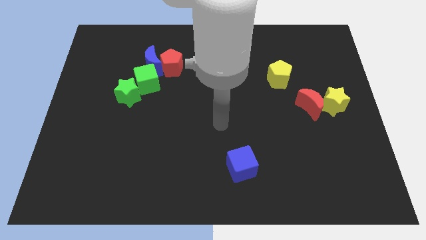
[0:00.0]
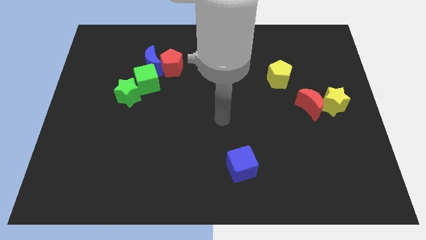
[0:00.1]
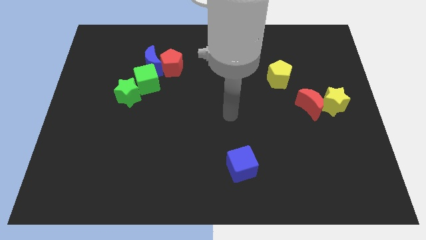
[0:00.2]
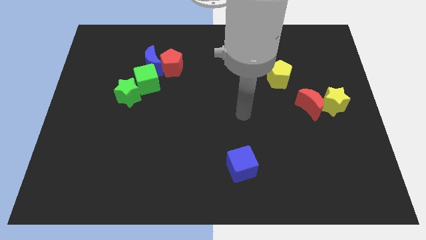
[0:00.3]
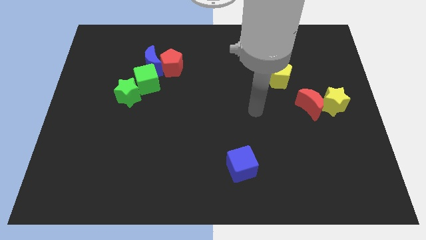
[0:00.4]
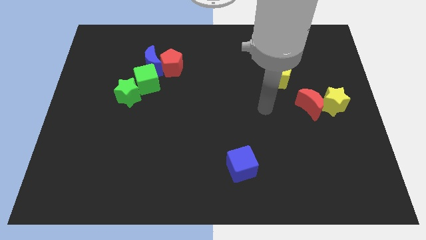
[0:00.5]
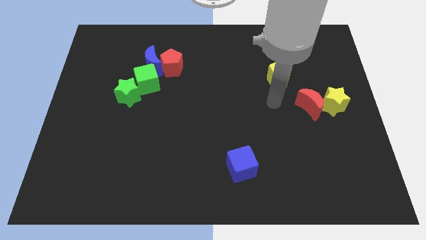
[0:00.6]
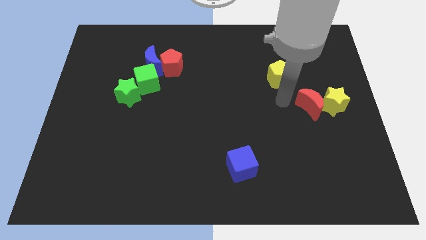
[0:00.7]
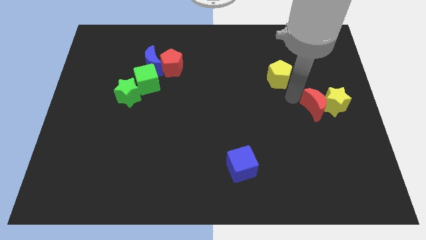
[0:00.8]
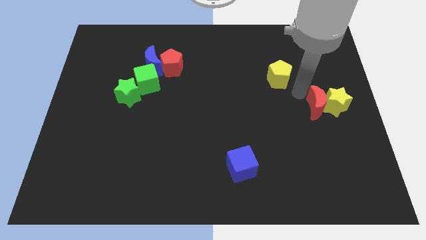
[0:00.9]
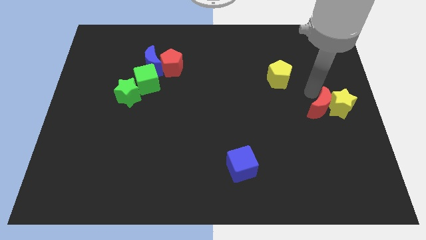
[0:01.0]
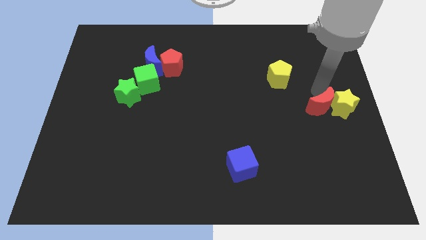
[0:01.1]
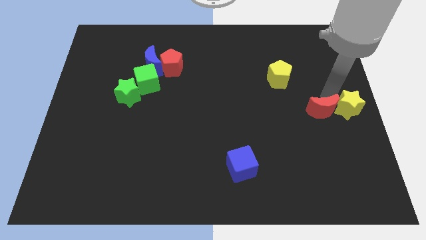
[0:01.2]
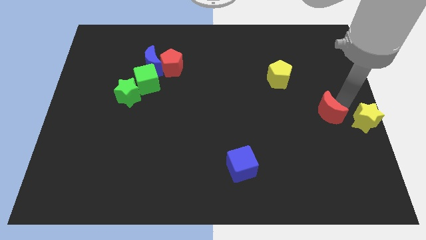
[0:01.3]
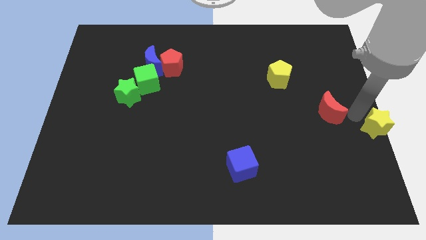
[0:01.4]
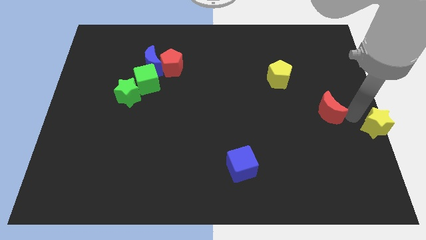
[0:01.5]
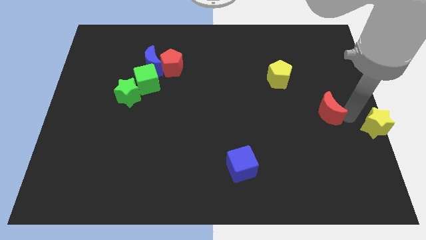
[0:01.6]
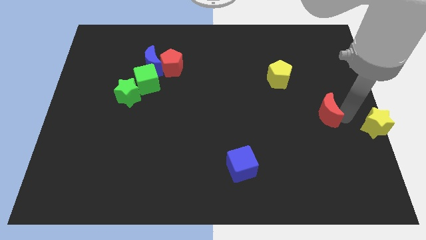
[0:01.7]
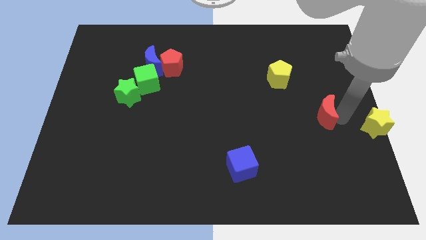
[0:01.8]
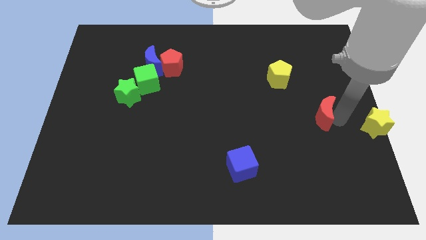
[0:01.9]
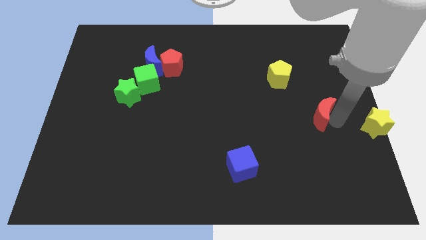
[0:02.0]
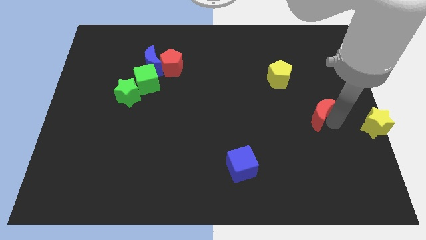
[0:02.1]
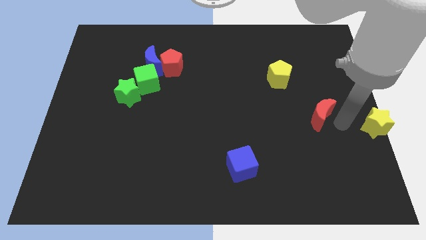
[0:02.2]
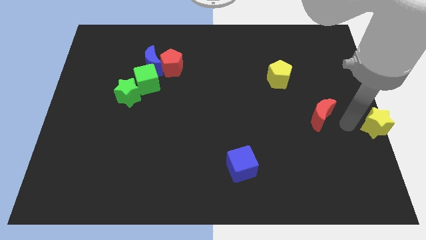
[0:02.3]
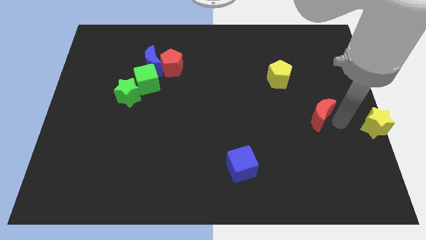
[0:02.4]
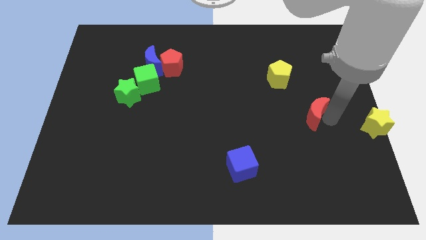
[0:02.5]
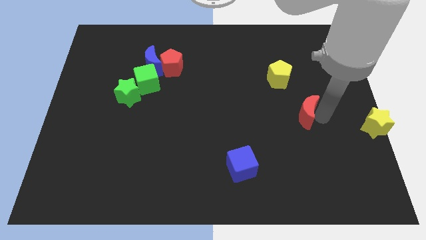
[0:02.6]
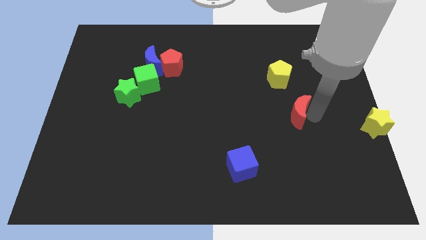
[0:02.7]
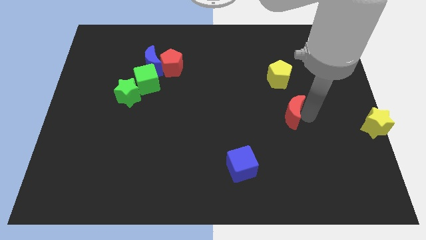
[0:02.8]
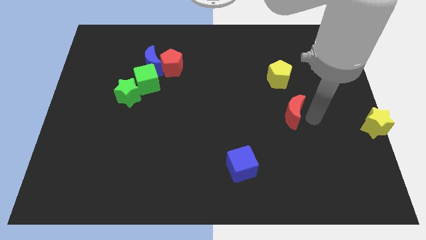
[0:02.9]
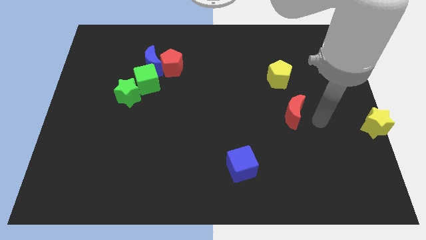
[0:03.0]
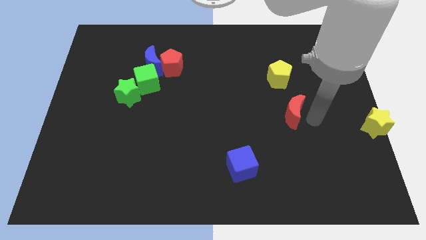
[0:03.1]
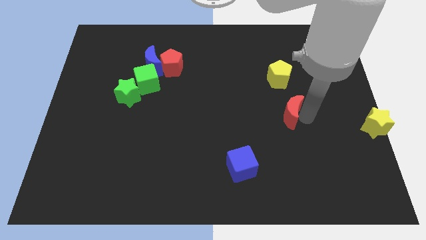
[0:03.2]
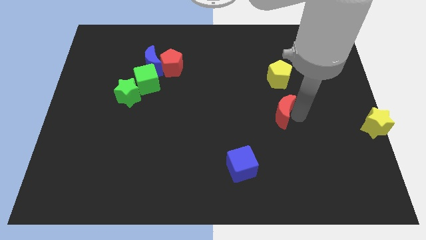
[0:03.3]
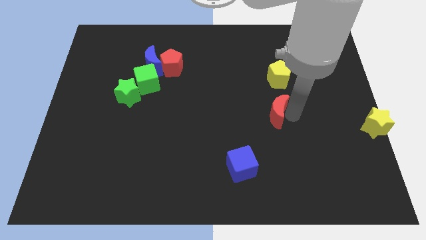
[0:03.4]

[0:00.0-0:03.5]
slightly slide the red moon to the left

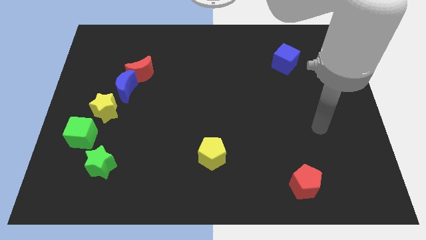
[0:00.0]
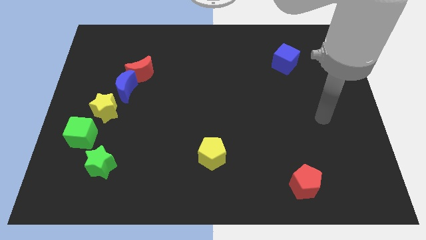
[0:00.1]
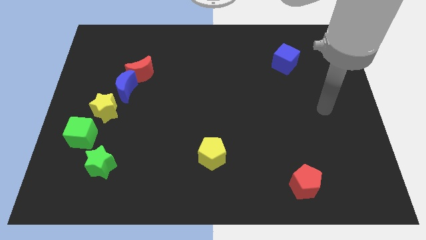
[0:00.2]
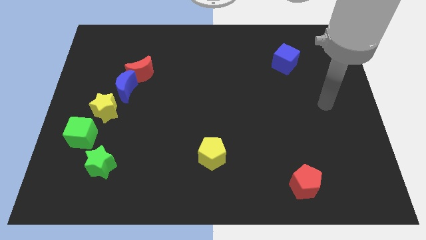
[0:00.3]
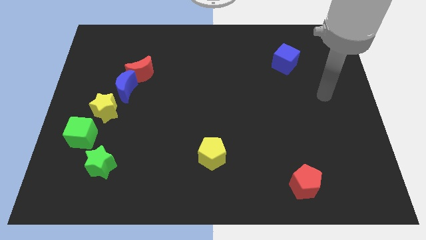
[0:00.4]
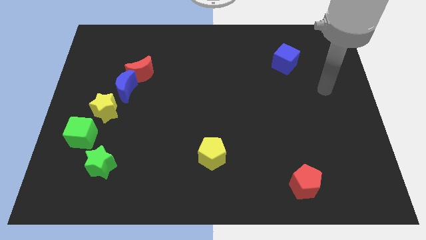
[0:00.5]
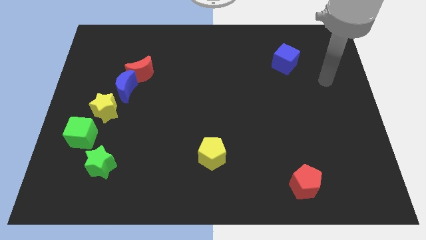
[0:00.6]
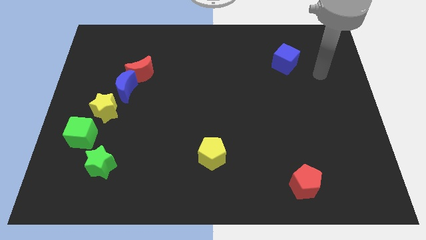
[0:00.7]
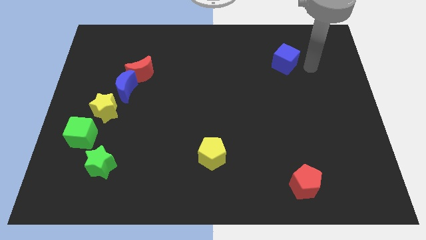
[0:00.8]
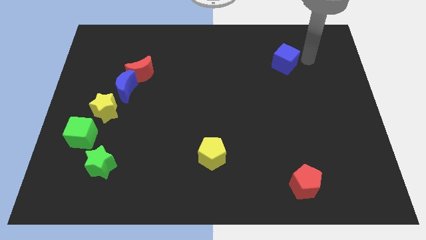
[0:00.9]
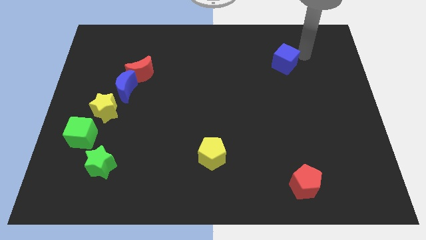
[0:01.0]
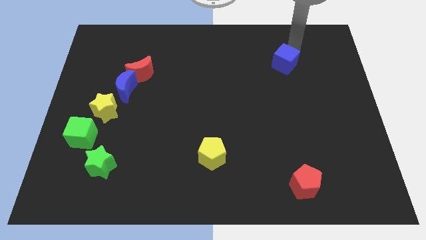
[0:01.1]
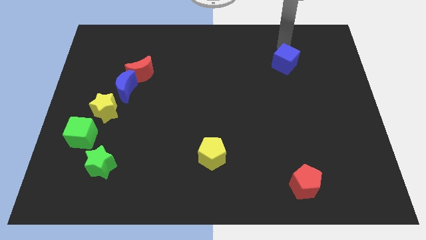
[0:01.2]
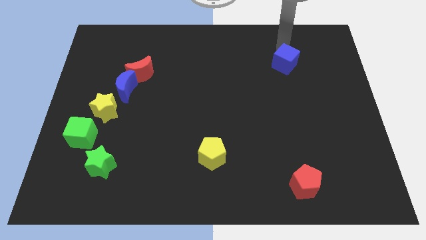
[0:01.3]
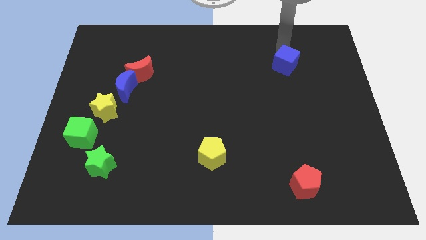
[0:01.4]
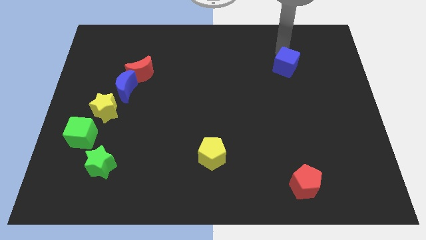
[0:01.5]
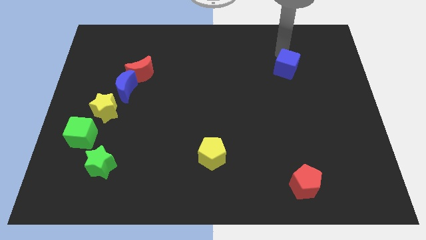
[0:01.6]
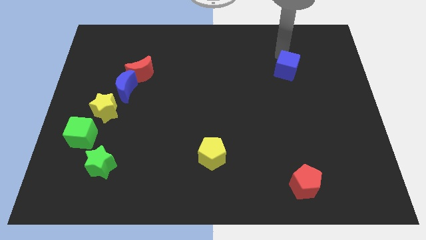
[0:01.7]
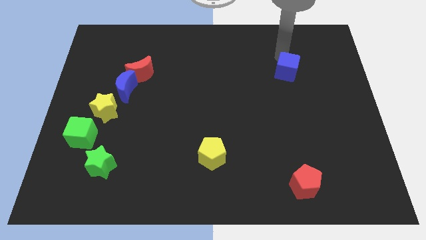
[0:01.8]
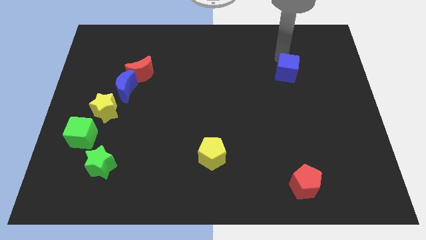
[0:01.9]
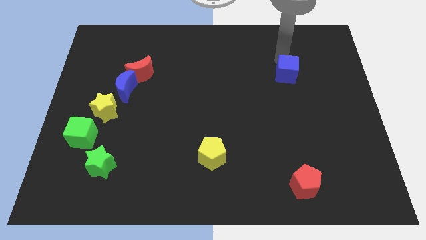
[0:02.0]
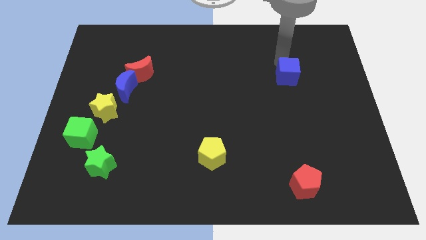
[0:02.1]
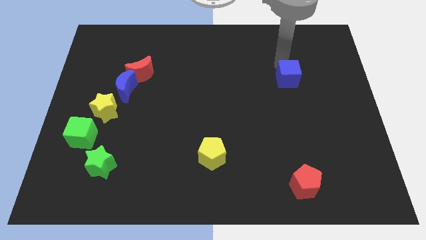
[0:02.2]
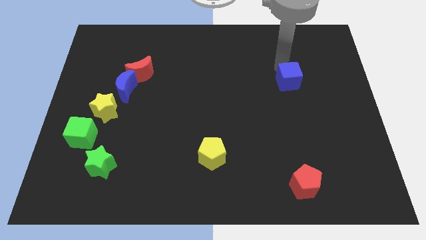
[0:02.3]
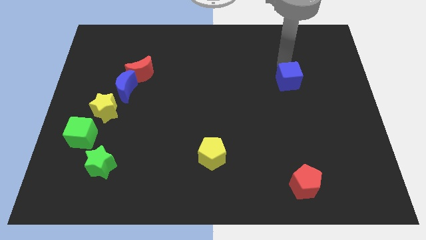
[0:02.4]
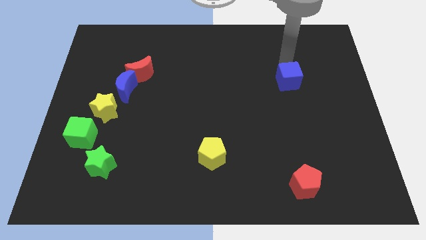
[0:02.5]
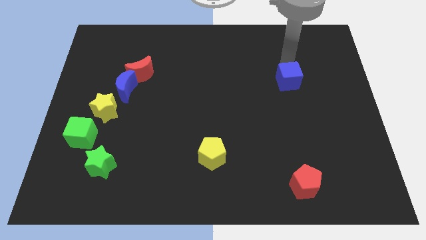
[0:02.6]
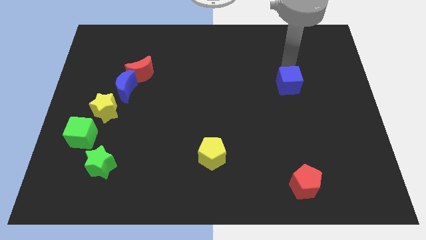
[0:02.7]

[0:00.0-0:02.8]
slide the blue cube a little bit down

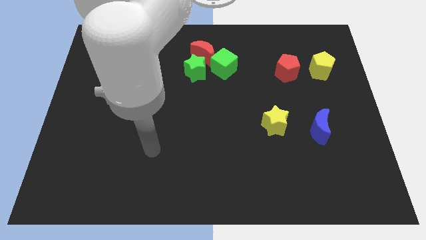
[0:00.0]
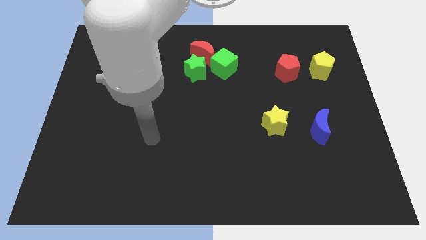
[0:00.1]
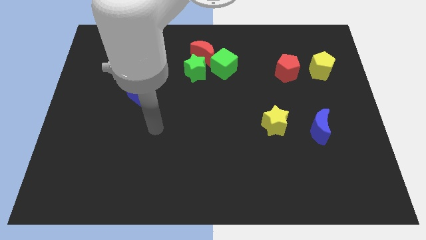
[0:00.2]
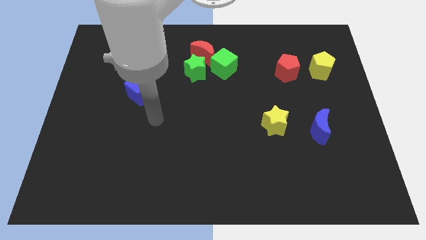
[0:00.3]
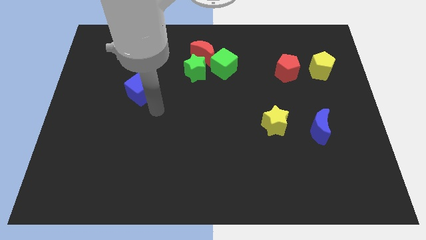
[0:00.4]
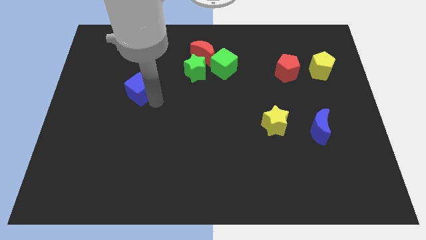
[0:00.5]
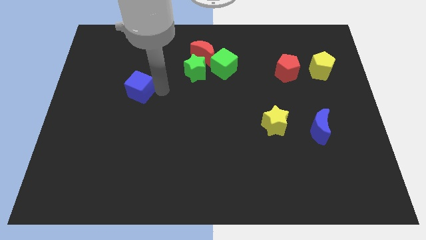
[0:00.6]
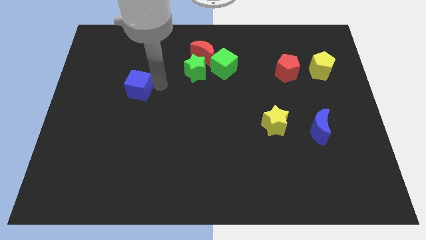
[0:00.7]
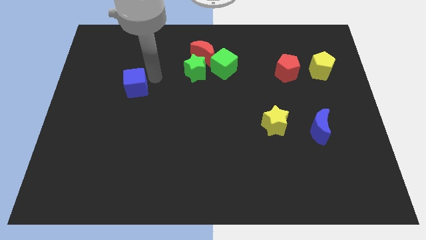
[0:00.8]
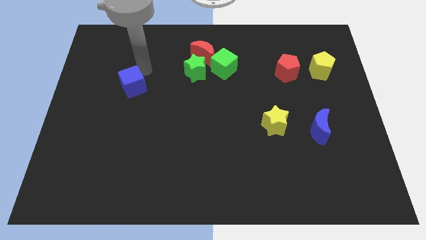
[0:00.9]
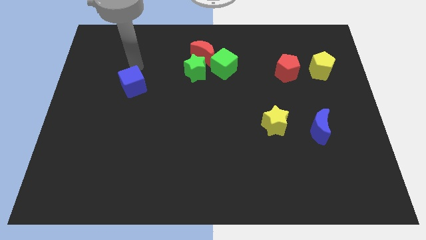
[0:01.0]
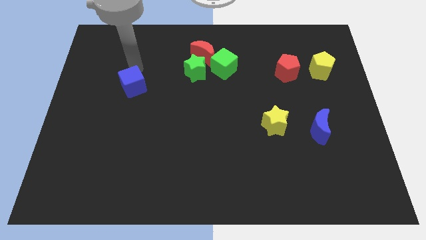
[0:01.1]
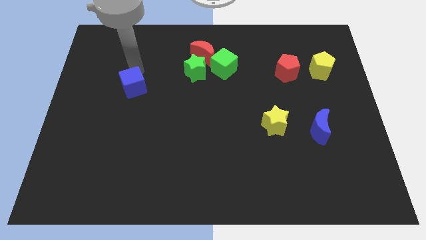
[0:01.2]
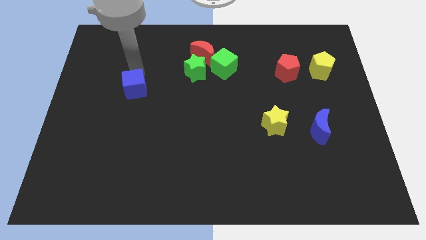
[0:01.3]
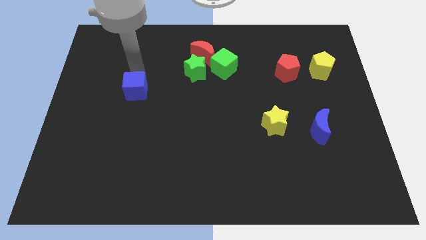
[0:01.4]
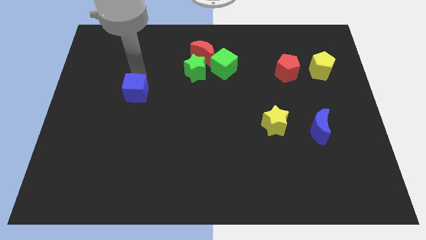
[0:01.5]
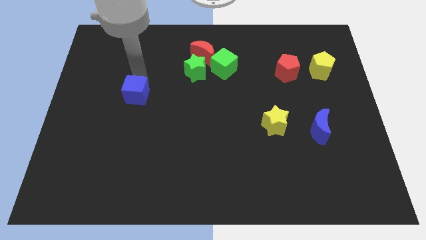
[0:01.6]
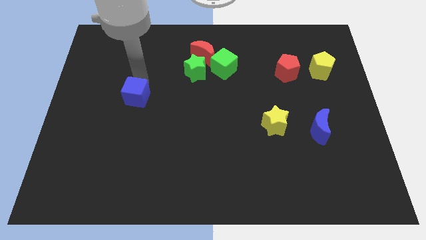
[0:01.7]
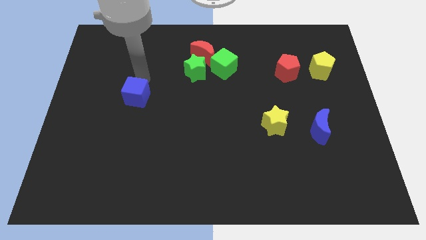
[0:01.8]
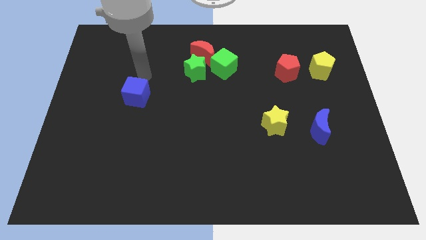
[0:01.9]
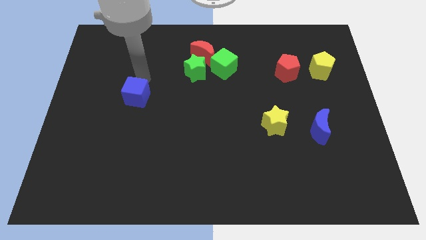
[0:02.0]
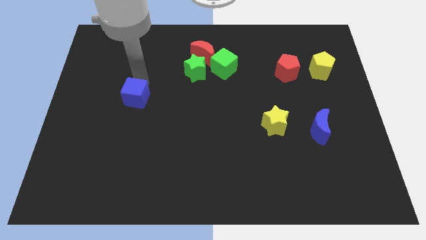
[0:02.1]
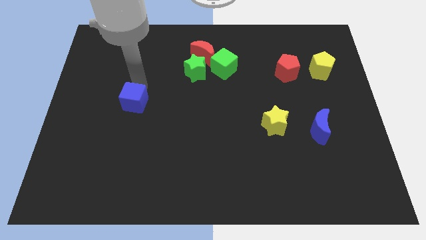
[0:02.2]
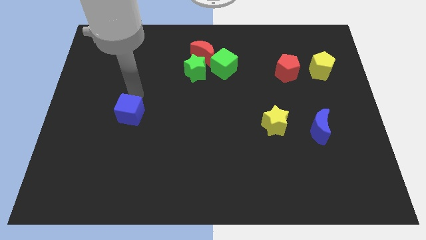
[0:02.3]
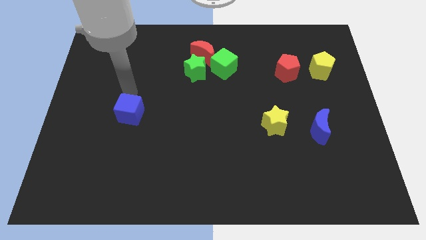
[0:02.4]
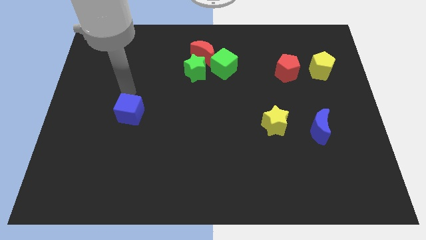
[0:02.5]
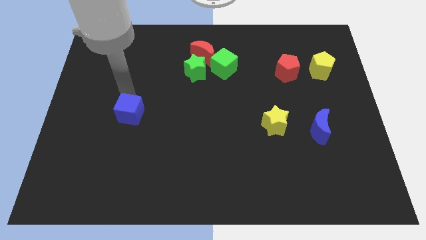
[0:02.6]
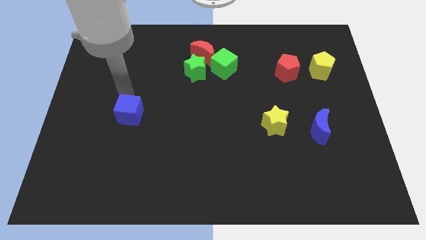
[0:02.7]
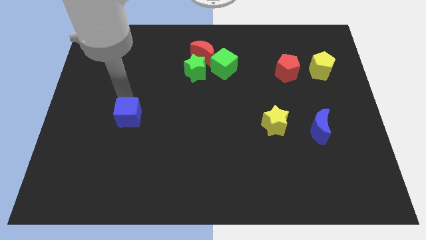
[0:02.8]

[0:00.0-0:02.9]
slightly slide the blue cube down
